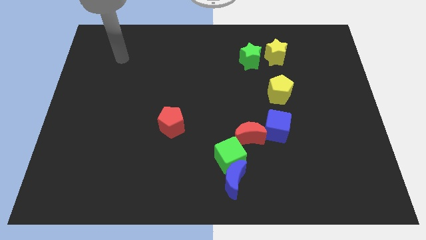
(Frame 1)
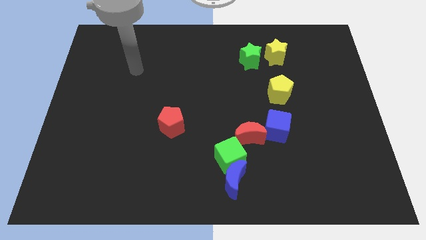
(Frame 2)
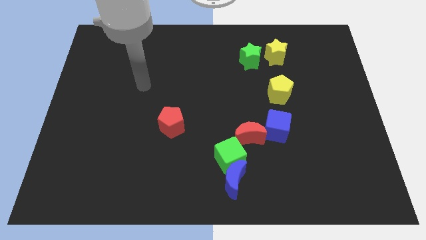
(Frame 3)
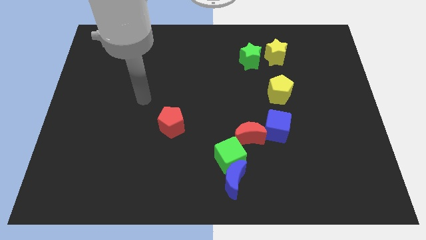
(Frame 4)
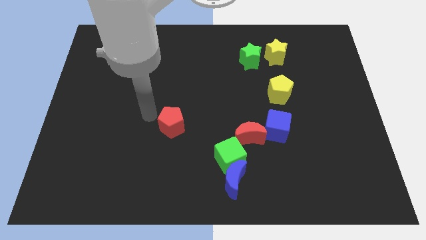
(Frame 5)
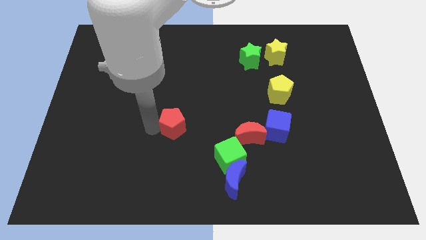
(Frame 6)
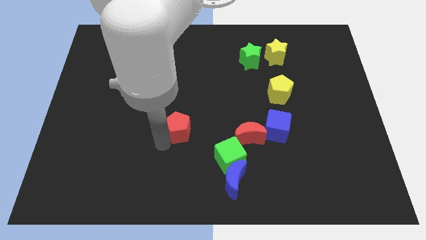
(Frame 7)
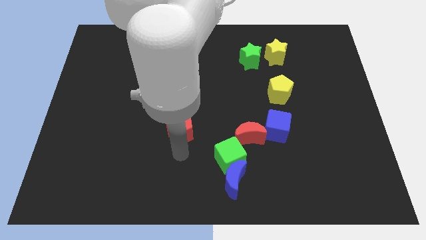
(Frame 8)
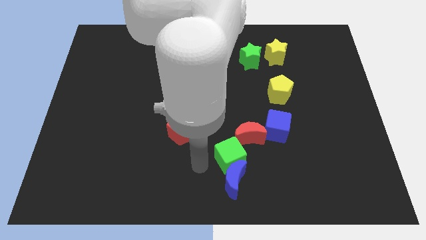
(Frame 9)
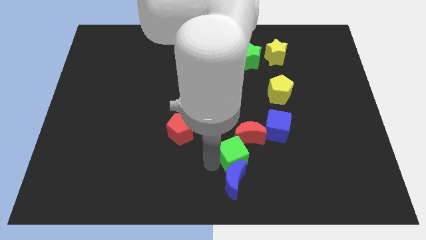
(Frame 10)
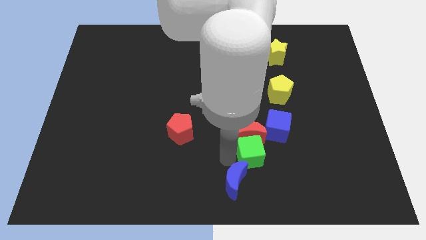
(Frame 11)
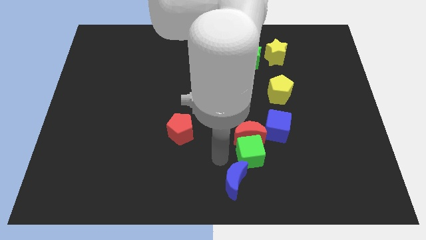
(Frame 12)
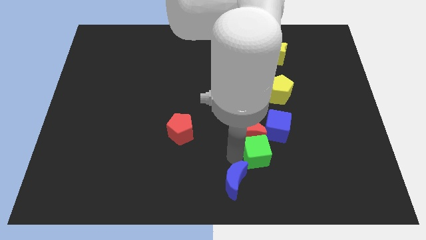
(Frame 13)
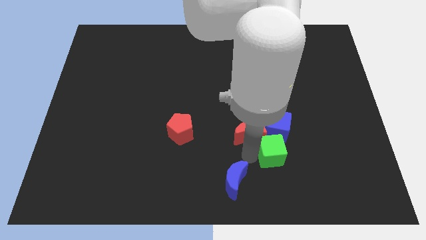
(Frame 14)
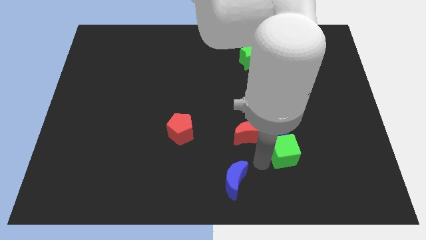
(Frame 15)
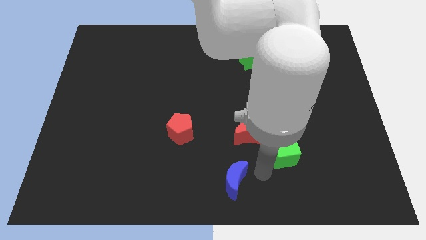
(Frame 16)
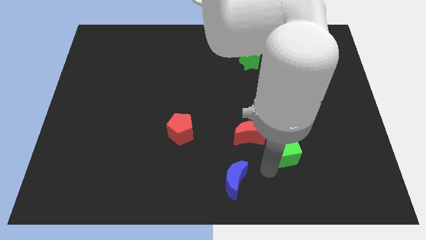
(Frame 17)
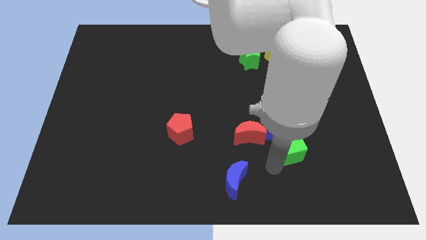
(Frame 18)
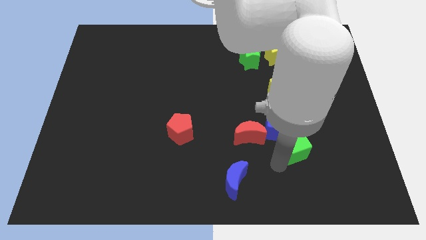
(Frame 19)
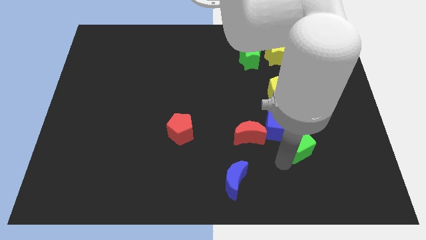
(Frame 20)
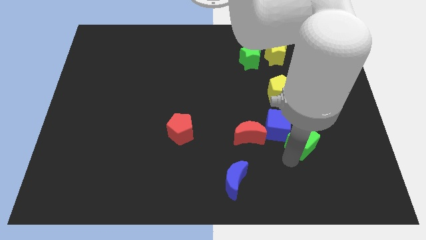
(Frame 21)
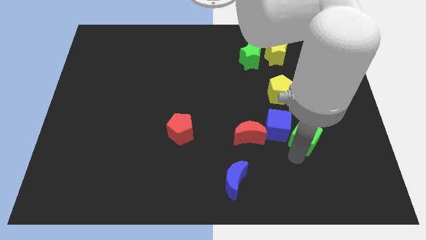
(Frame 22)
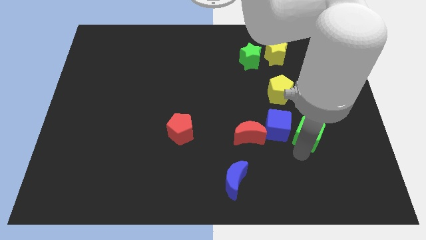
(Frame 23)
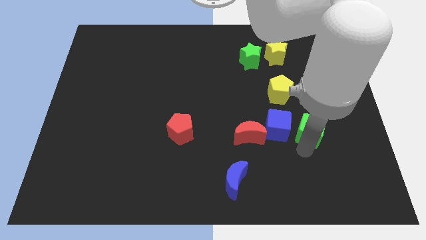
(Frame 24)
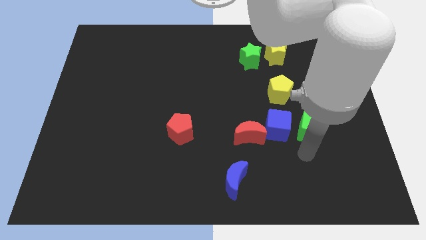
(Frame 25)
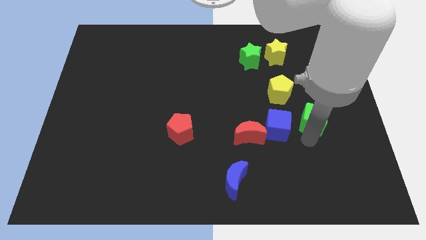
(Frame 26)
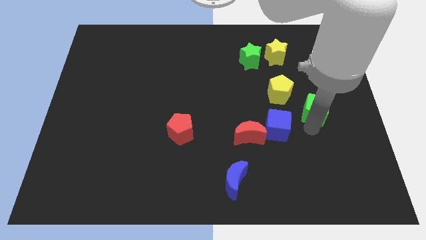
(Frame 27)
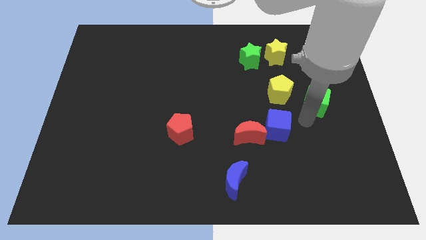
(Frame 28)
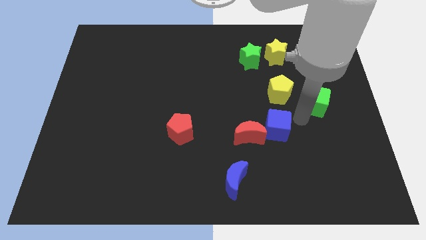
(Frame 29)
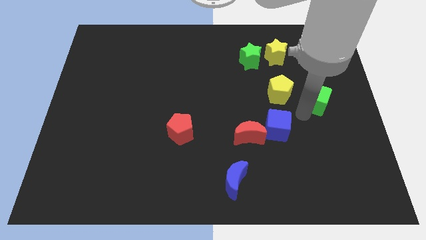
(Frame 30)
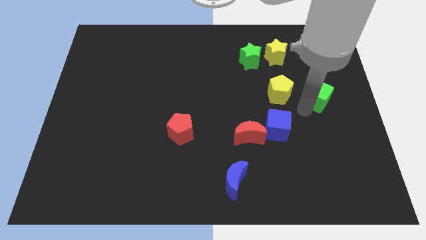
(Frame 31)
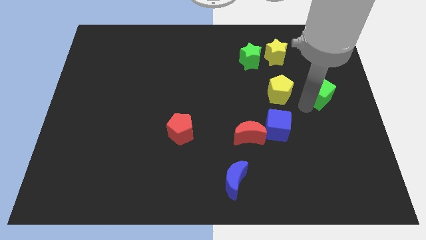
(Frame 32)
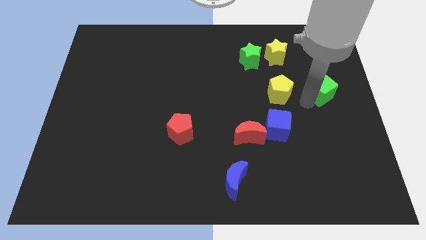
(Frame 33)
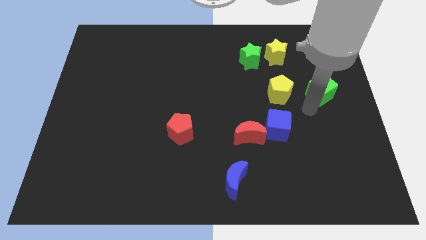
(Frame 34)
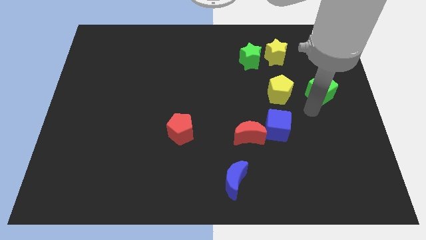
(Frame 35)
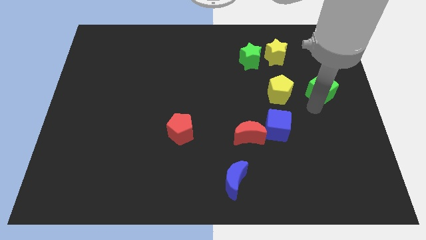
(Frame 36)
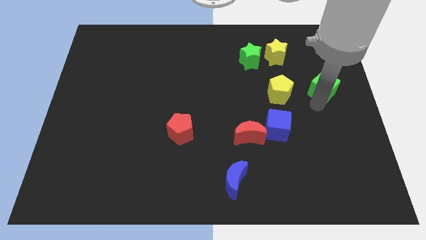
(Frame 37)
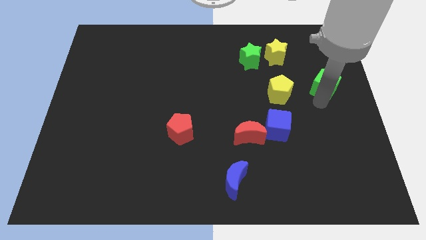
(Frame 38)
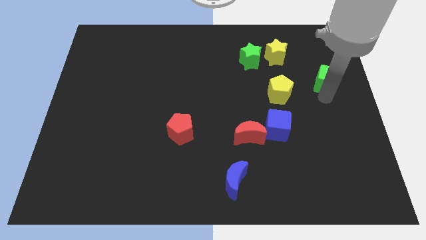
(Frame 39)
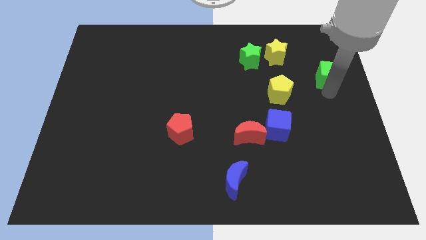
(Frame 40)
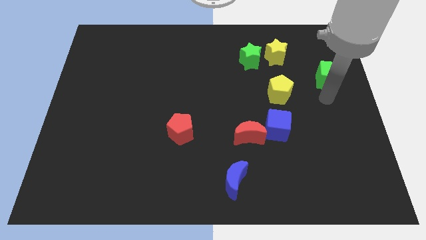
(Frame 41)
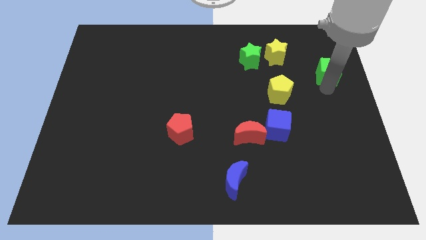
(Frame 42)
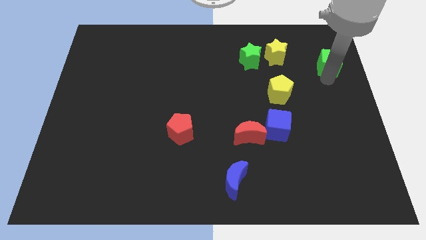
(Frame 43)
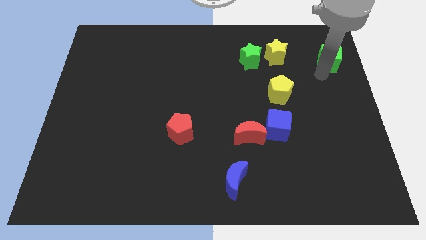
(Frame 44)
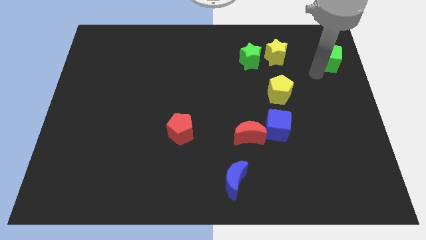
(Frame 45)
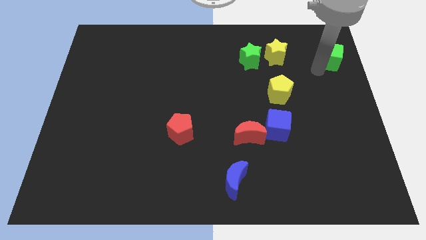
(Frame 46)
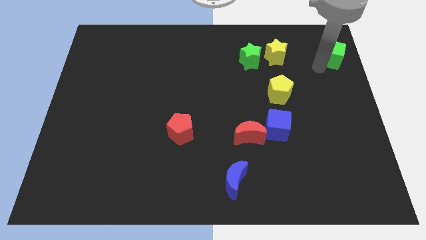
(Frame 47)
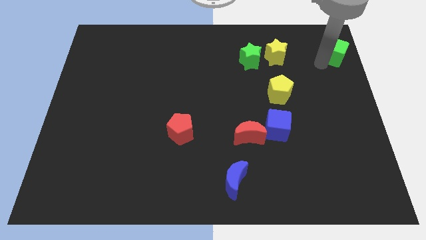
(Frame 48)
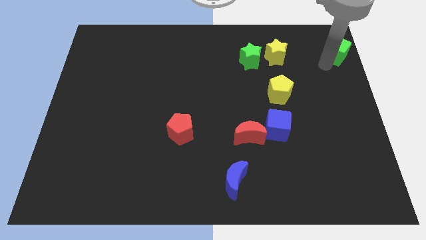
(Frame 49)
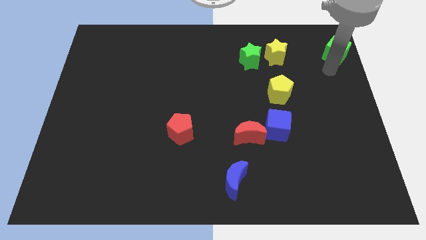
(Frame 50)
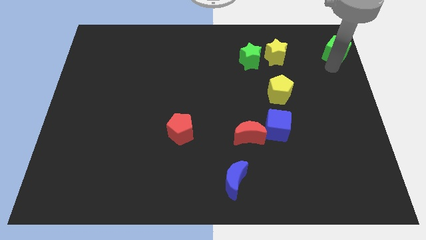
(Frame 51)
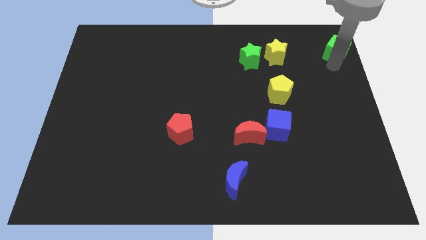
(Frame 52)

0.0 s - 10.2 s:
put the green cube to the upper right corner

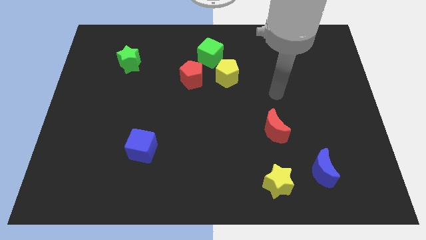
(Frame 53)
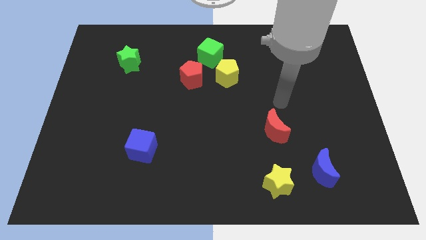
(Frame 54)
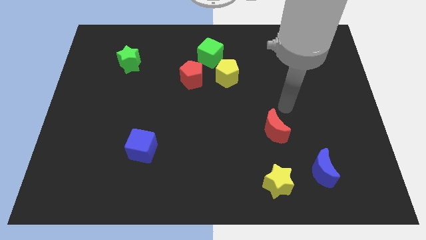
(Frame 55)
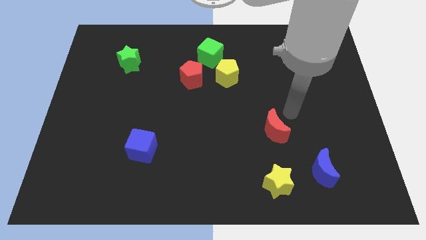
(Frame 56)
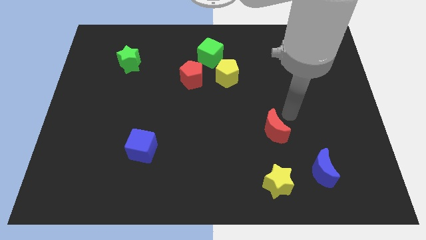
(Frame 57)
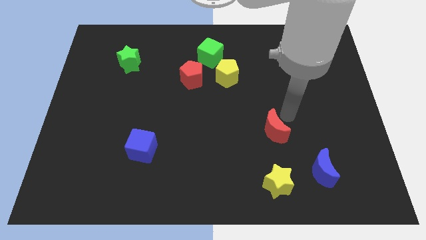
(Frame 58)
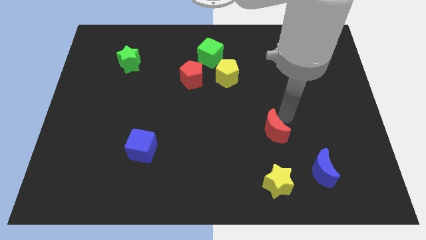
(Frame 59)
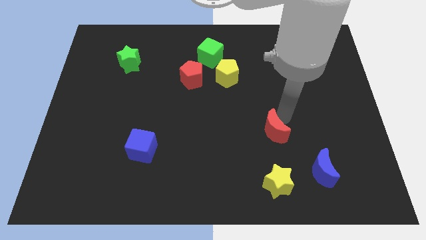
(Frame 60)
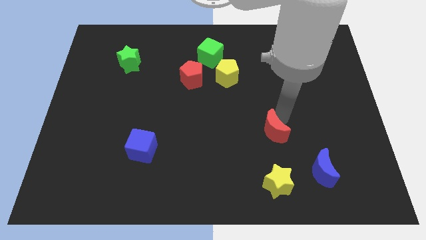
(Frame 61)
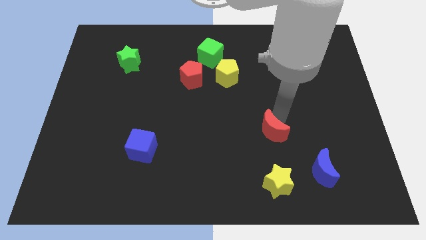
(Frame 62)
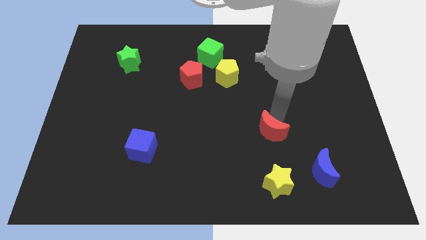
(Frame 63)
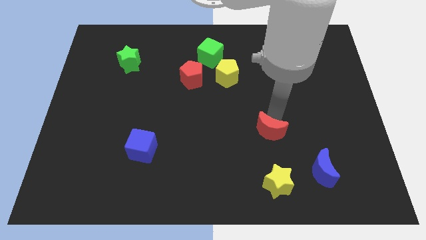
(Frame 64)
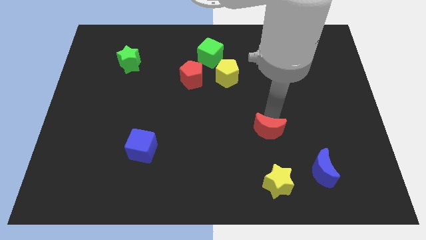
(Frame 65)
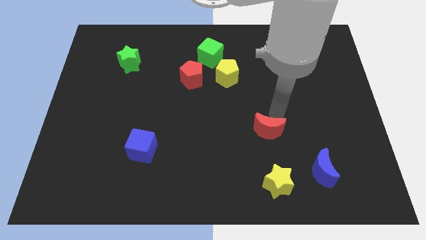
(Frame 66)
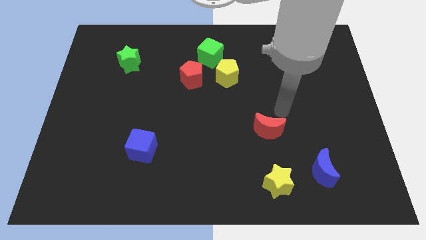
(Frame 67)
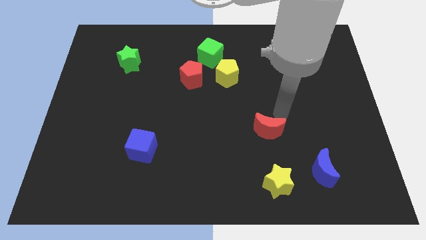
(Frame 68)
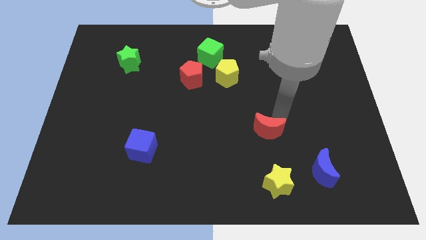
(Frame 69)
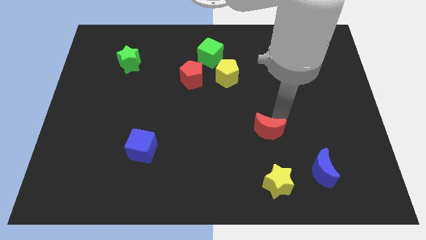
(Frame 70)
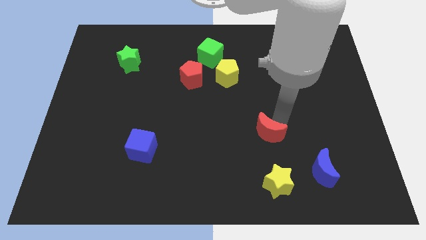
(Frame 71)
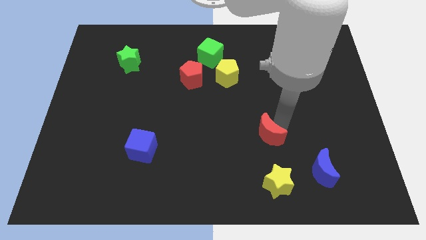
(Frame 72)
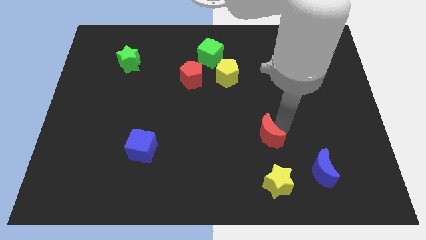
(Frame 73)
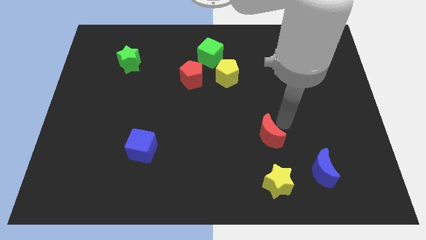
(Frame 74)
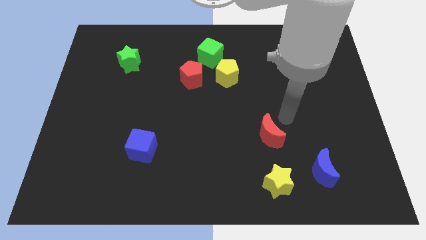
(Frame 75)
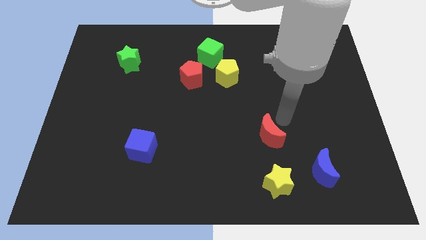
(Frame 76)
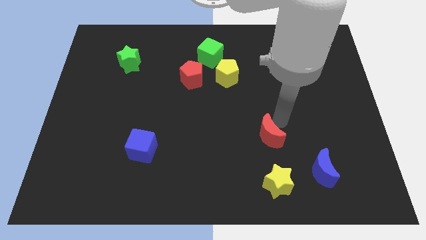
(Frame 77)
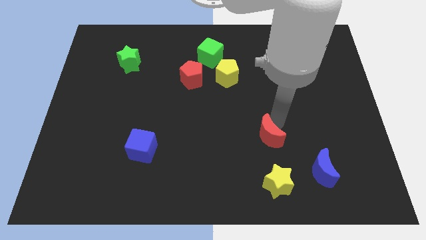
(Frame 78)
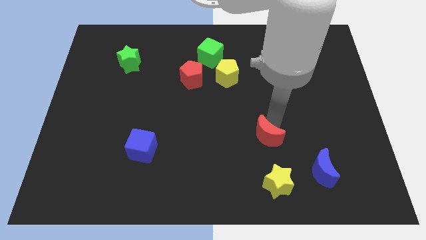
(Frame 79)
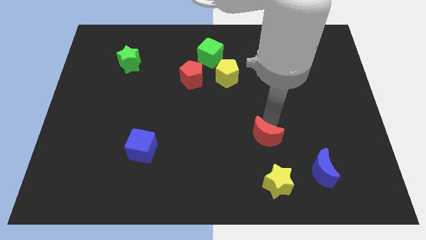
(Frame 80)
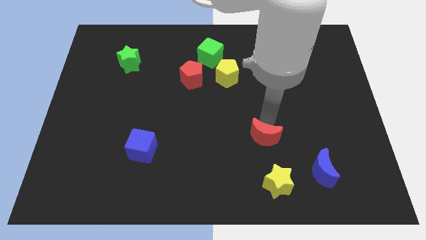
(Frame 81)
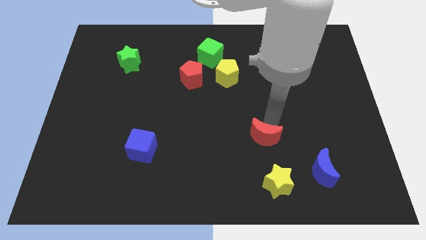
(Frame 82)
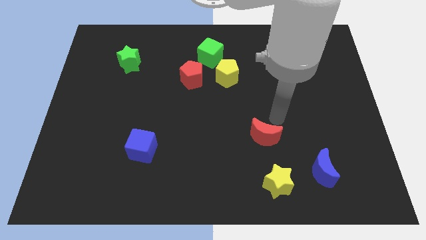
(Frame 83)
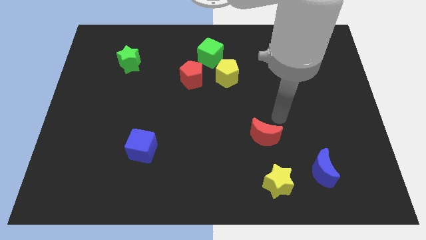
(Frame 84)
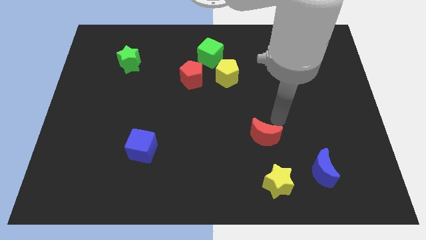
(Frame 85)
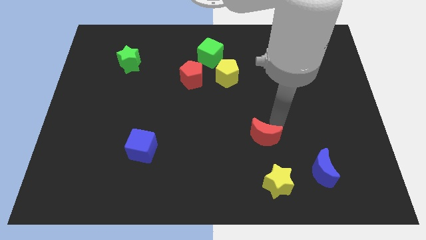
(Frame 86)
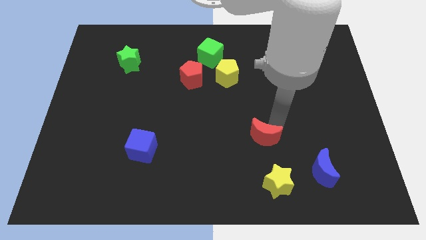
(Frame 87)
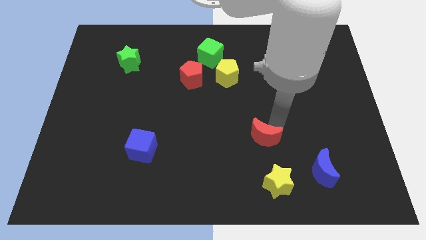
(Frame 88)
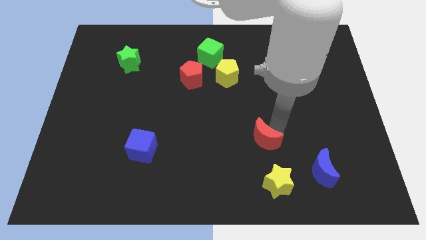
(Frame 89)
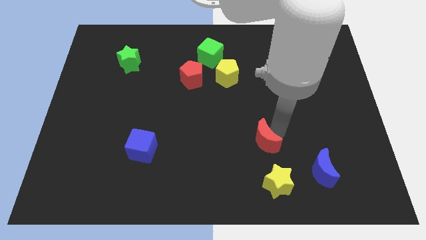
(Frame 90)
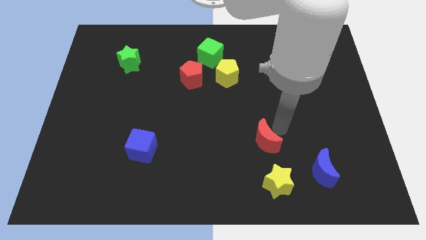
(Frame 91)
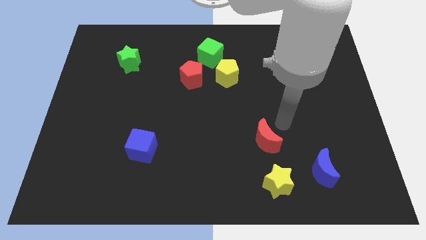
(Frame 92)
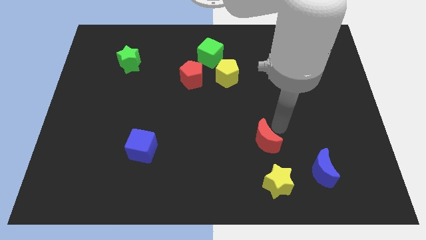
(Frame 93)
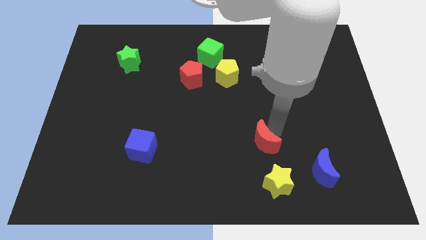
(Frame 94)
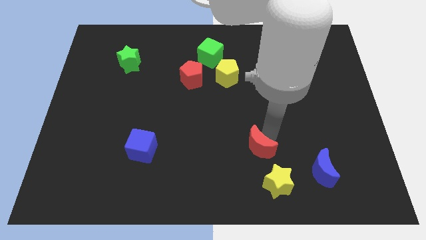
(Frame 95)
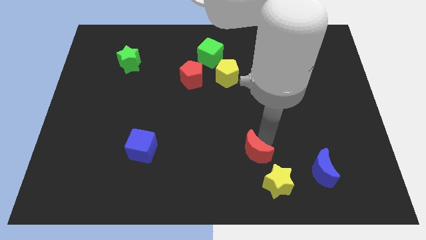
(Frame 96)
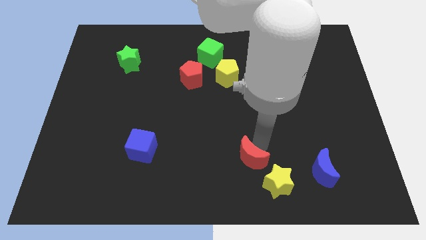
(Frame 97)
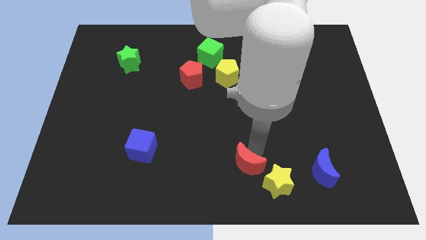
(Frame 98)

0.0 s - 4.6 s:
slide the red moon to the bottom
